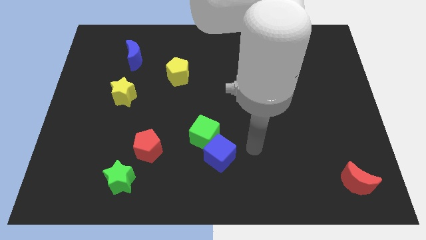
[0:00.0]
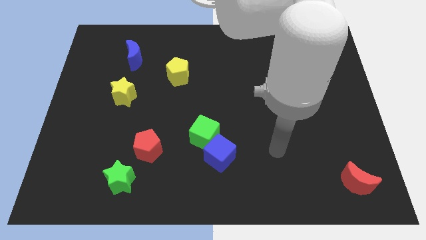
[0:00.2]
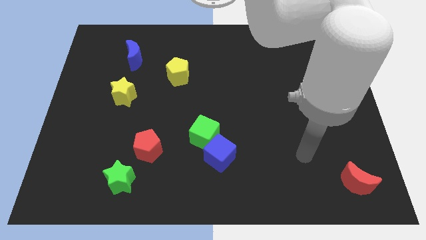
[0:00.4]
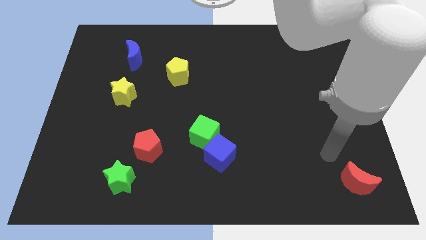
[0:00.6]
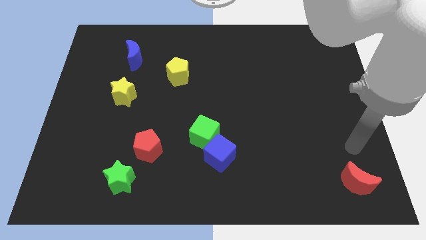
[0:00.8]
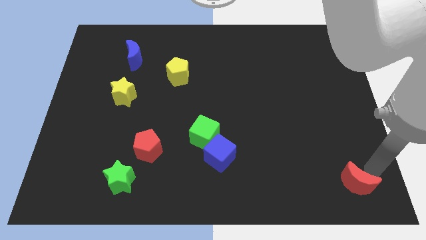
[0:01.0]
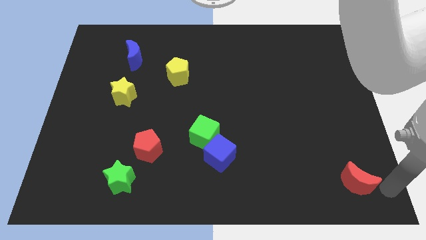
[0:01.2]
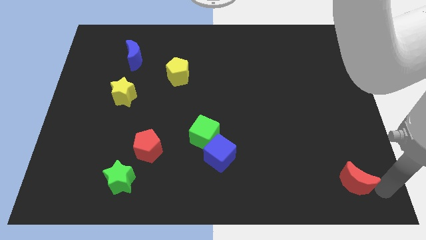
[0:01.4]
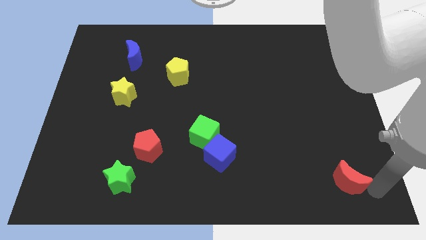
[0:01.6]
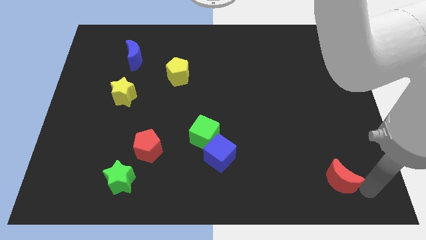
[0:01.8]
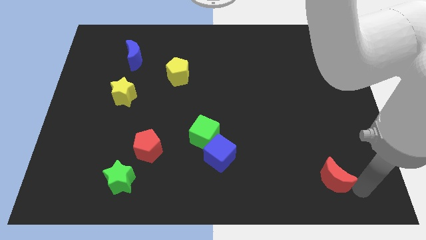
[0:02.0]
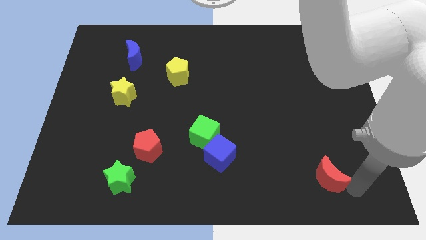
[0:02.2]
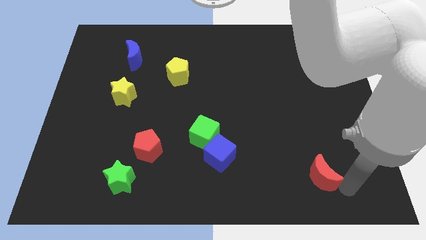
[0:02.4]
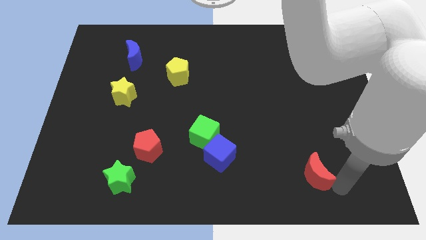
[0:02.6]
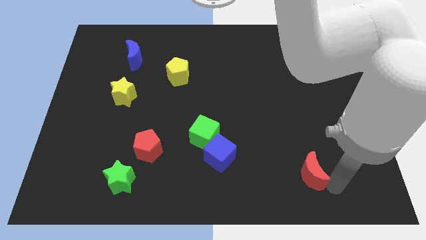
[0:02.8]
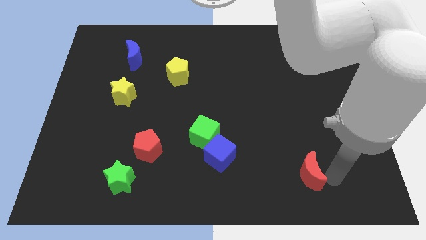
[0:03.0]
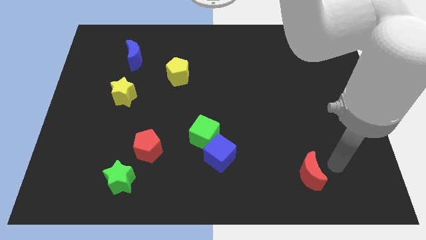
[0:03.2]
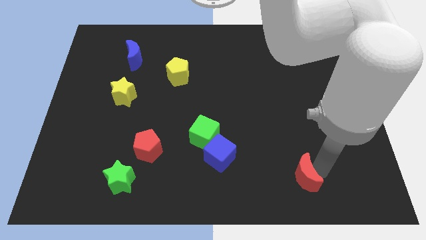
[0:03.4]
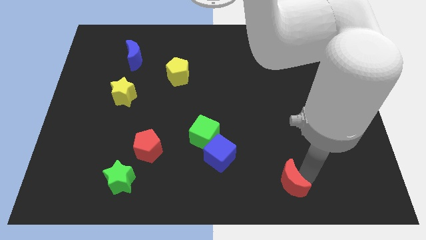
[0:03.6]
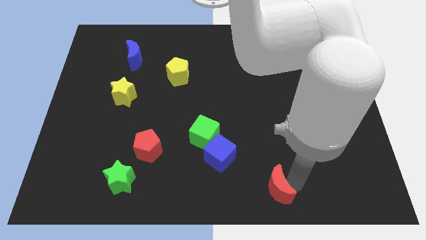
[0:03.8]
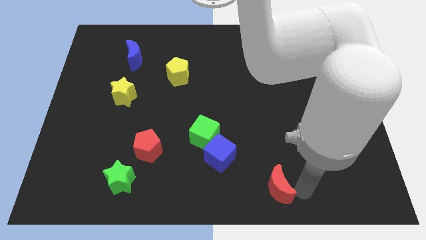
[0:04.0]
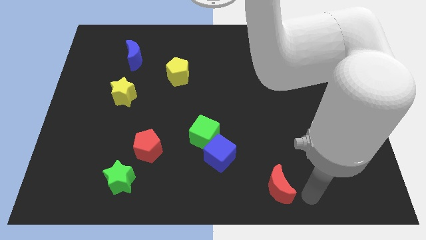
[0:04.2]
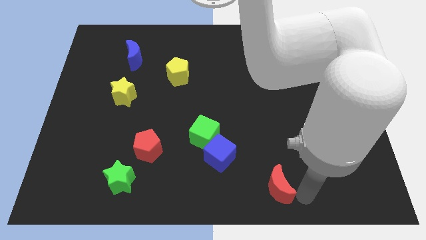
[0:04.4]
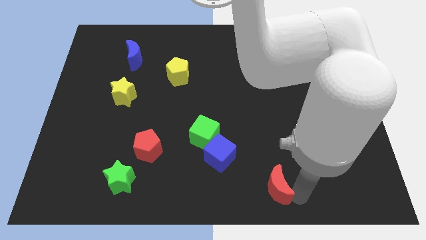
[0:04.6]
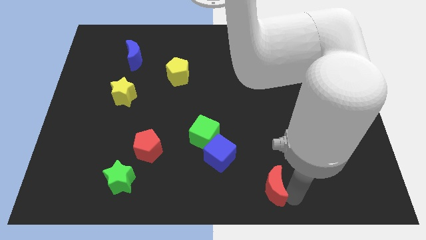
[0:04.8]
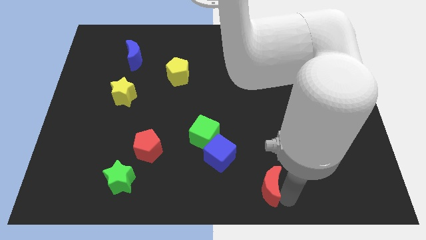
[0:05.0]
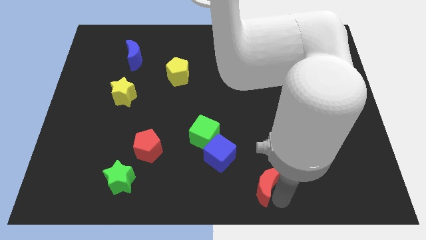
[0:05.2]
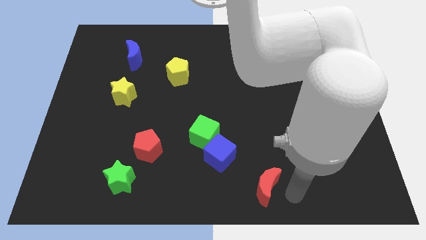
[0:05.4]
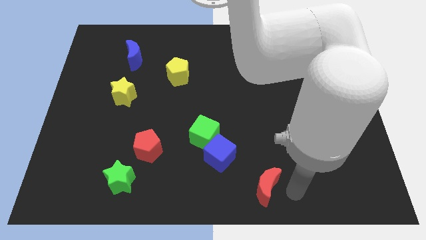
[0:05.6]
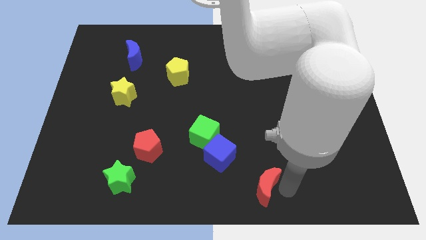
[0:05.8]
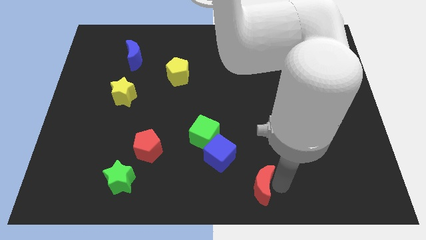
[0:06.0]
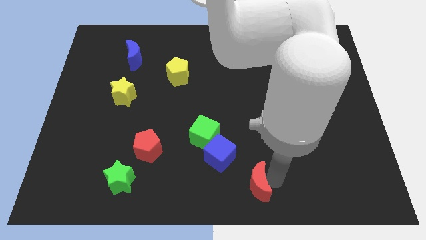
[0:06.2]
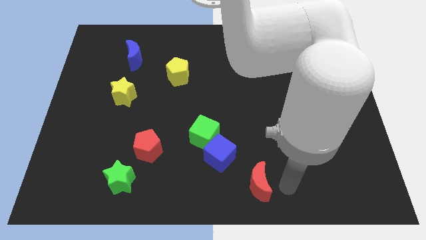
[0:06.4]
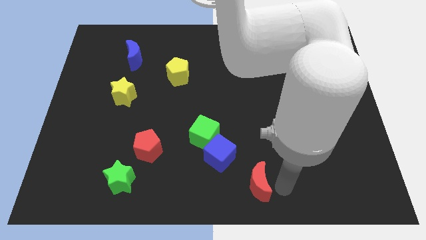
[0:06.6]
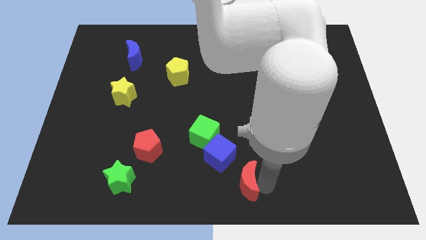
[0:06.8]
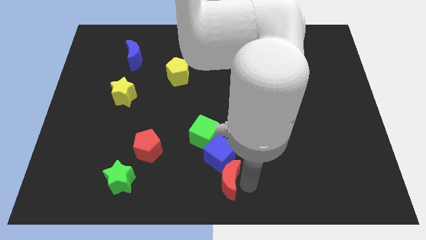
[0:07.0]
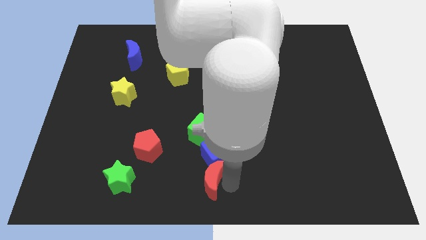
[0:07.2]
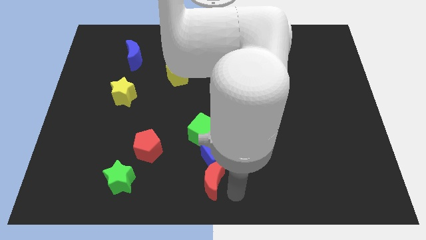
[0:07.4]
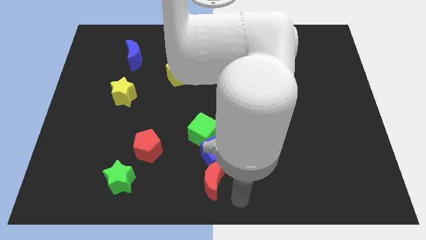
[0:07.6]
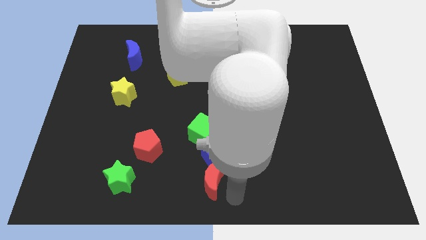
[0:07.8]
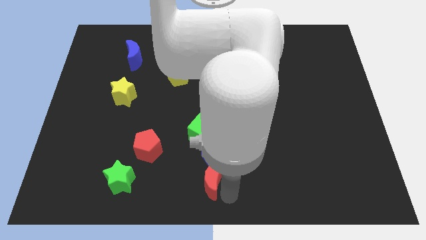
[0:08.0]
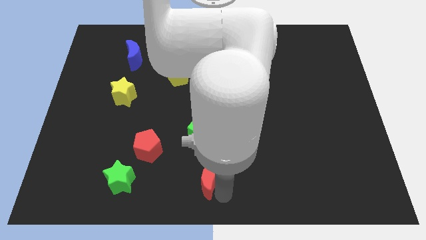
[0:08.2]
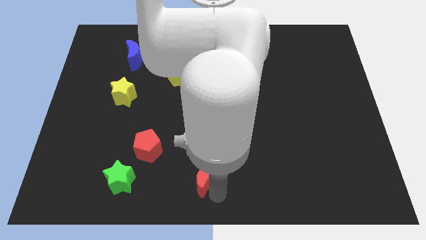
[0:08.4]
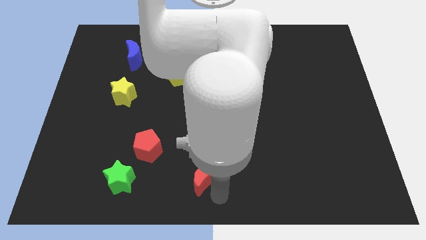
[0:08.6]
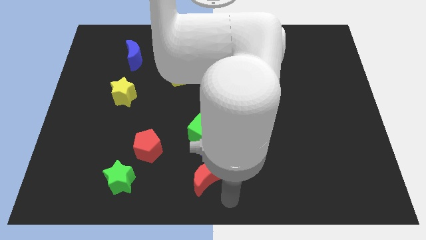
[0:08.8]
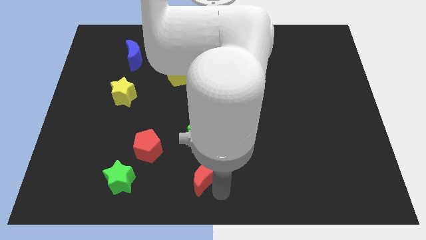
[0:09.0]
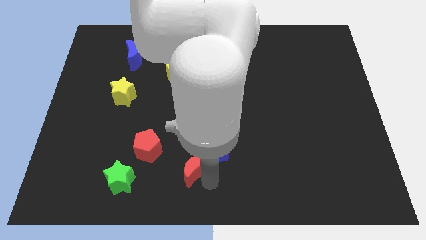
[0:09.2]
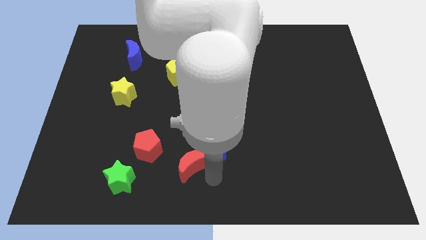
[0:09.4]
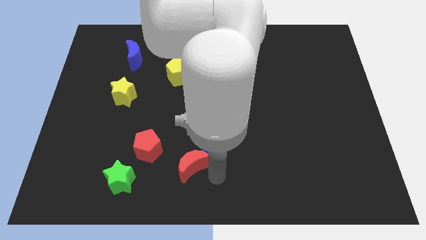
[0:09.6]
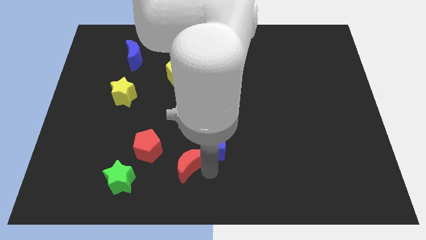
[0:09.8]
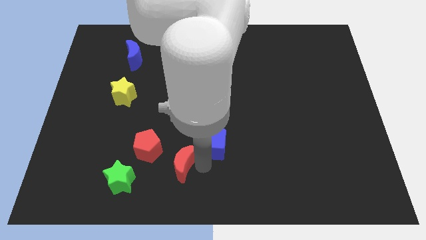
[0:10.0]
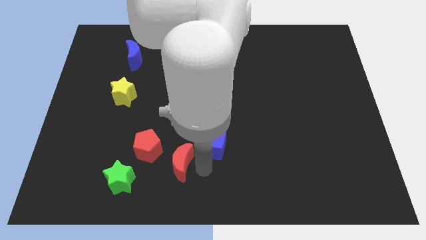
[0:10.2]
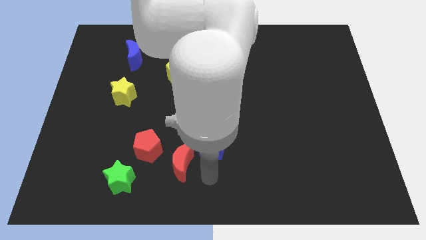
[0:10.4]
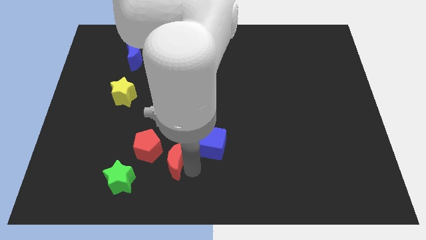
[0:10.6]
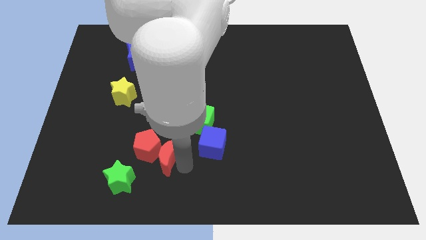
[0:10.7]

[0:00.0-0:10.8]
put the red moon next to the red pentagon
